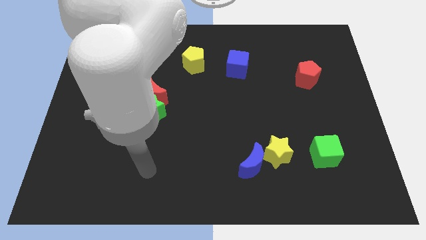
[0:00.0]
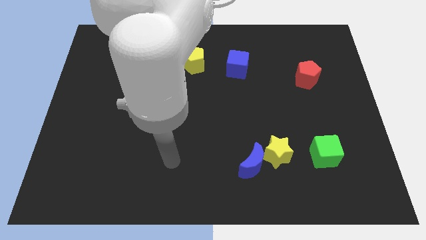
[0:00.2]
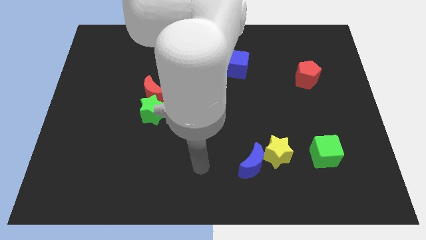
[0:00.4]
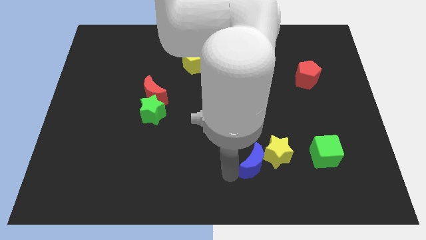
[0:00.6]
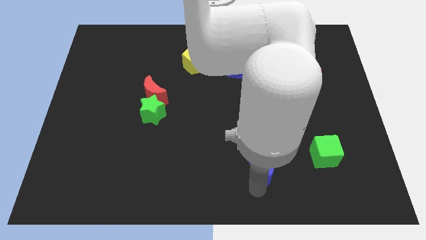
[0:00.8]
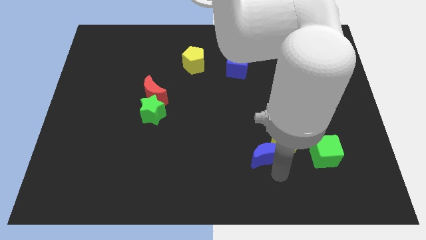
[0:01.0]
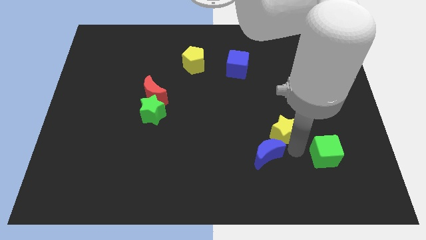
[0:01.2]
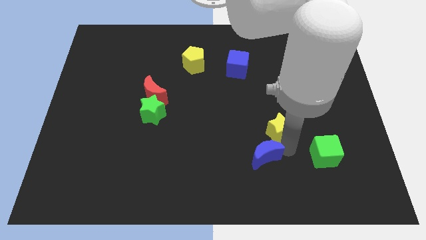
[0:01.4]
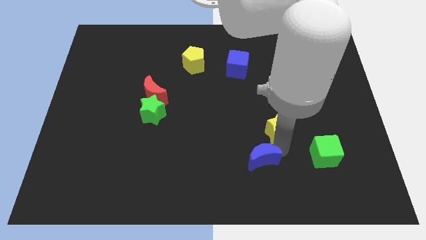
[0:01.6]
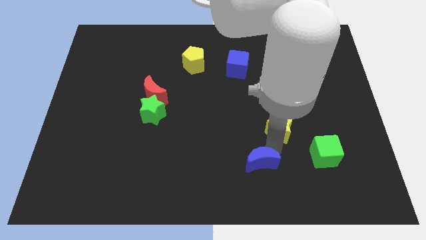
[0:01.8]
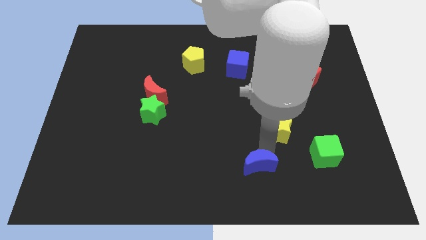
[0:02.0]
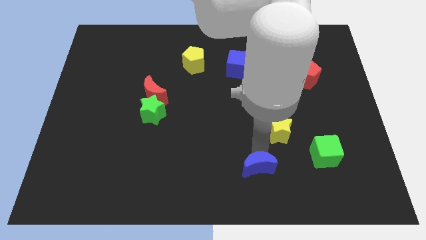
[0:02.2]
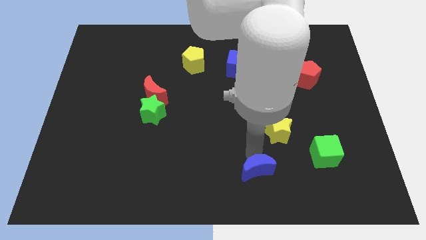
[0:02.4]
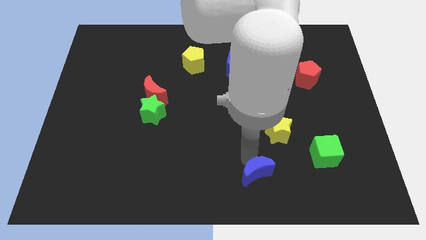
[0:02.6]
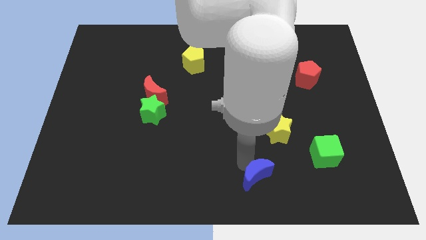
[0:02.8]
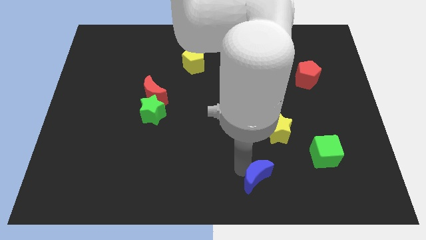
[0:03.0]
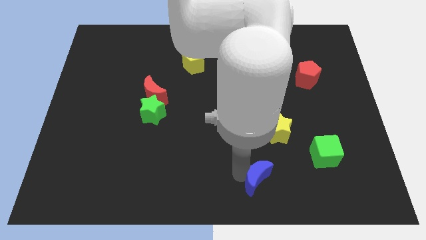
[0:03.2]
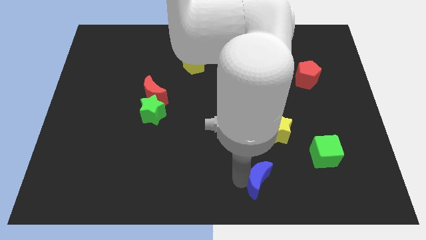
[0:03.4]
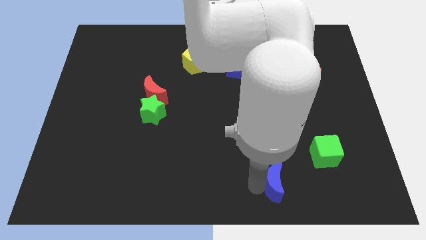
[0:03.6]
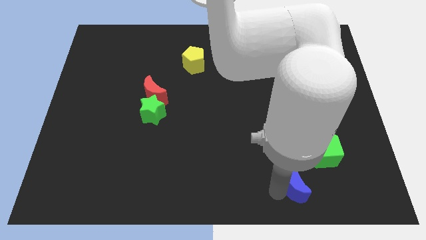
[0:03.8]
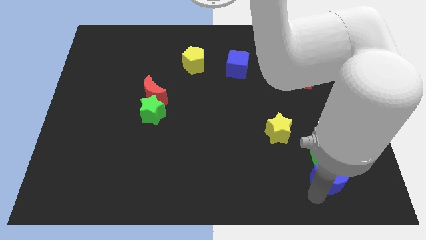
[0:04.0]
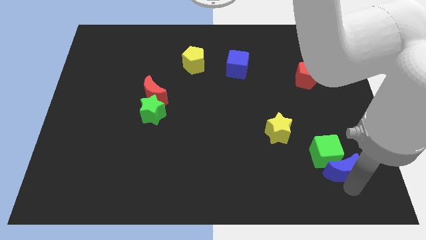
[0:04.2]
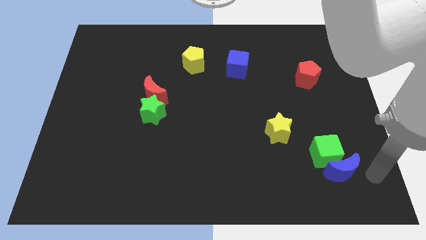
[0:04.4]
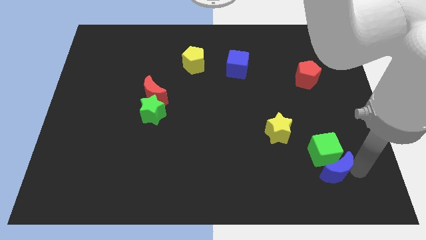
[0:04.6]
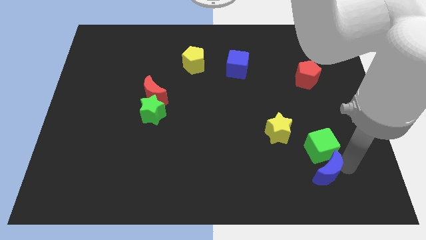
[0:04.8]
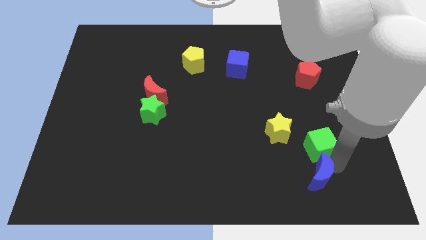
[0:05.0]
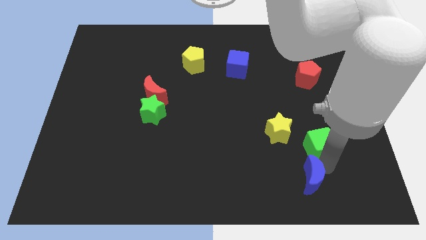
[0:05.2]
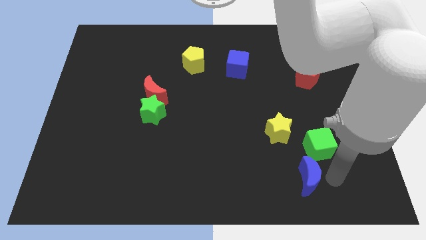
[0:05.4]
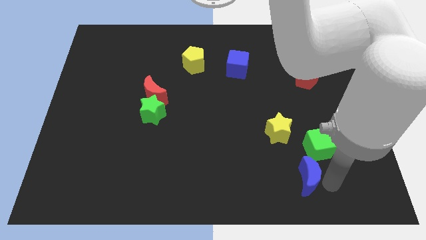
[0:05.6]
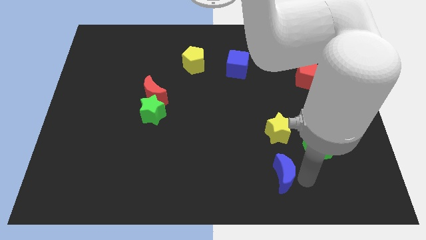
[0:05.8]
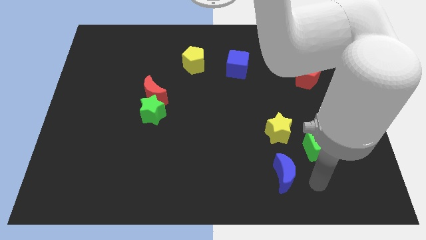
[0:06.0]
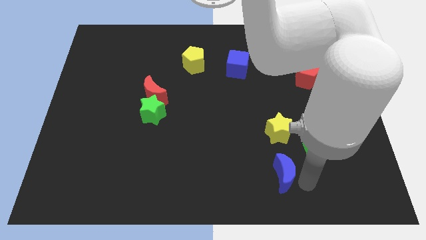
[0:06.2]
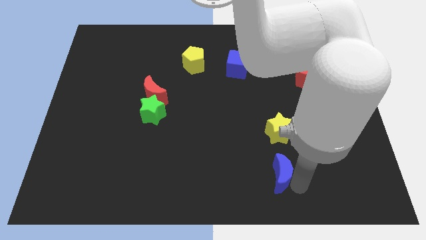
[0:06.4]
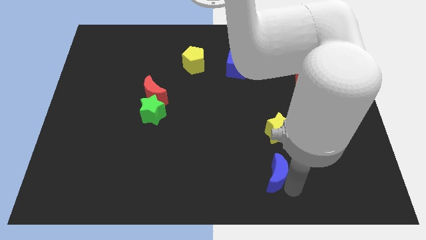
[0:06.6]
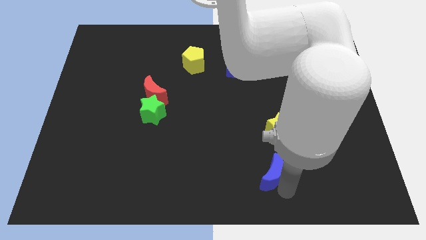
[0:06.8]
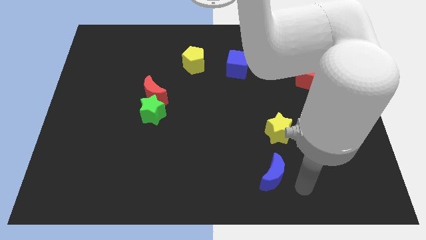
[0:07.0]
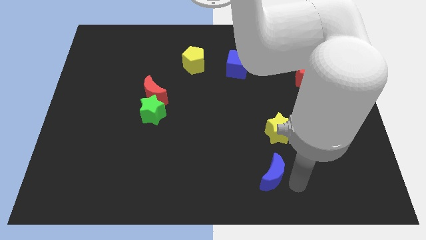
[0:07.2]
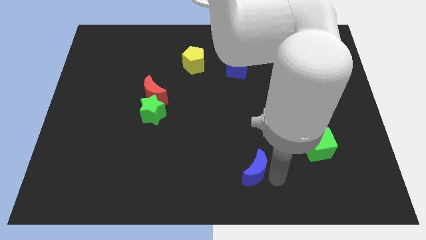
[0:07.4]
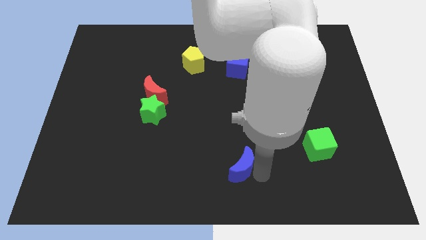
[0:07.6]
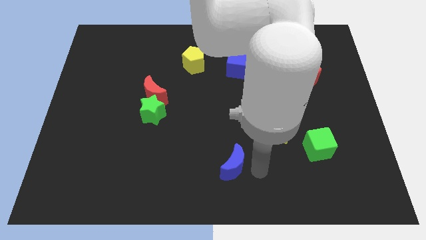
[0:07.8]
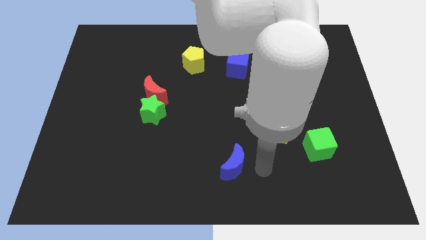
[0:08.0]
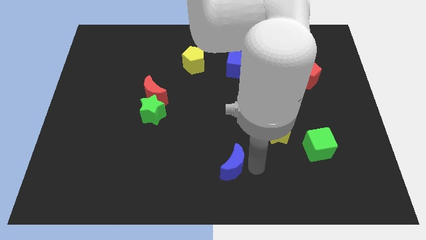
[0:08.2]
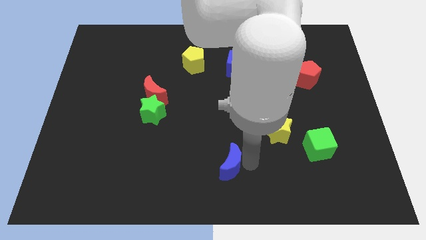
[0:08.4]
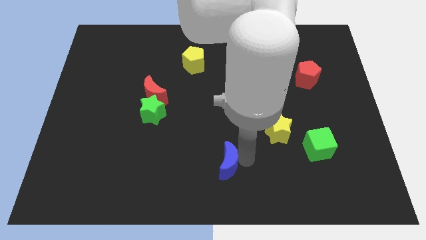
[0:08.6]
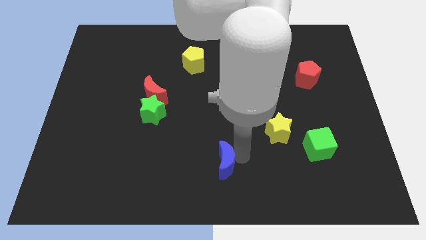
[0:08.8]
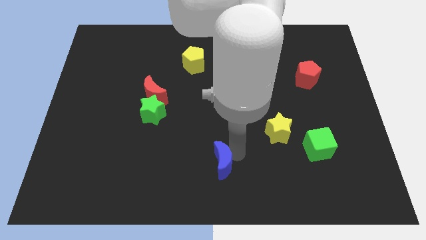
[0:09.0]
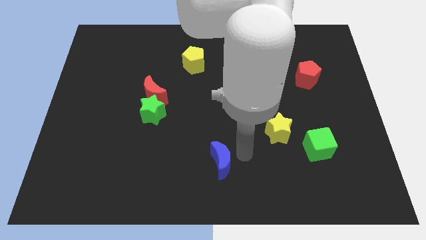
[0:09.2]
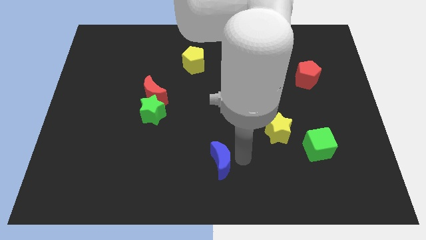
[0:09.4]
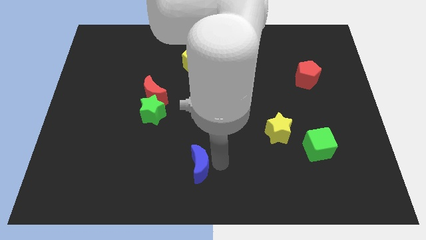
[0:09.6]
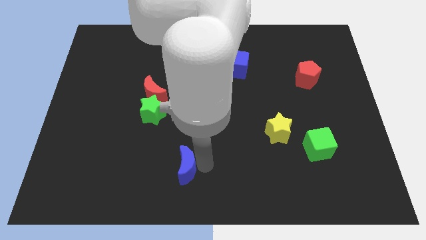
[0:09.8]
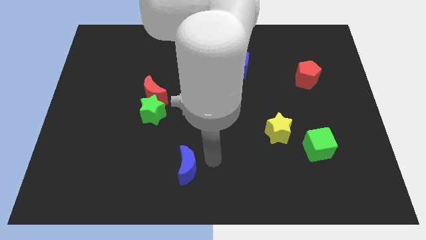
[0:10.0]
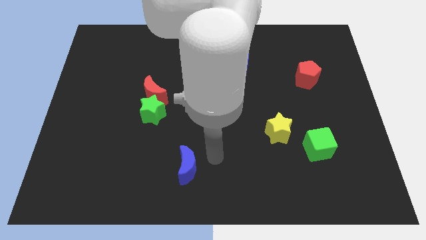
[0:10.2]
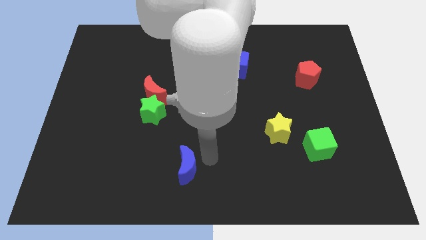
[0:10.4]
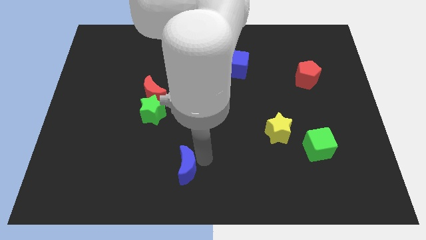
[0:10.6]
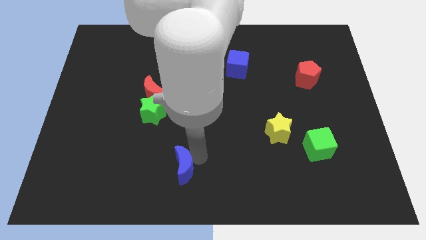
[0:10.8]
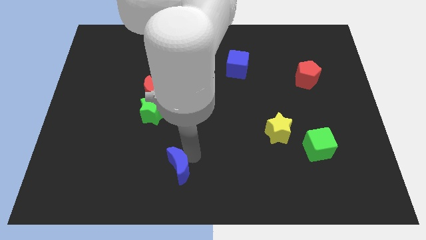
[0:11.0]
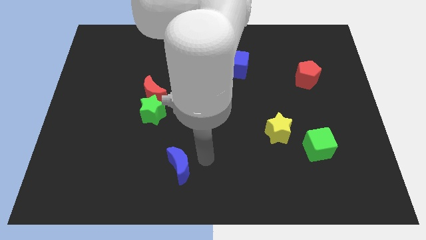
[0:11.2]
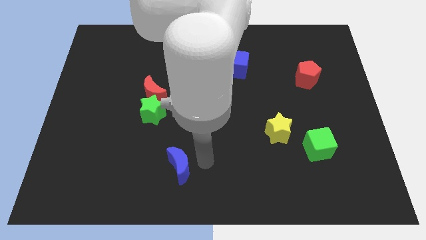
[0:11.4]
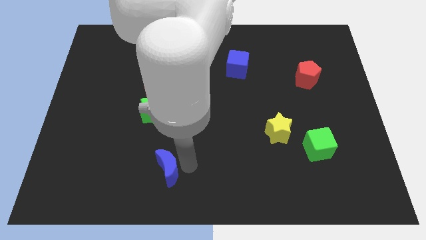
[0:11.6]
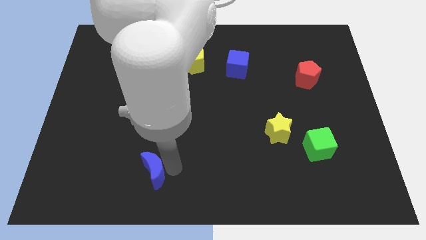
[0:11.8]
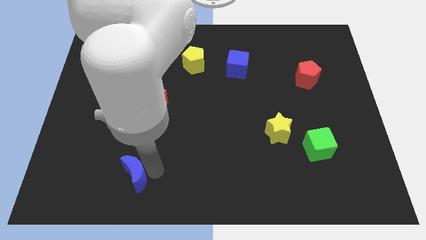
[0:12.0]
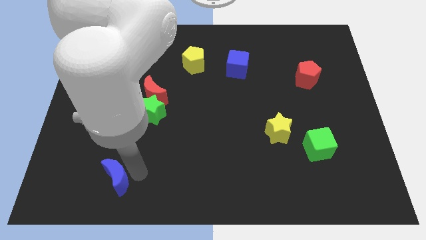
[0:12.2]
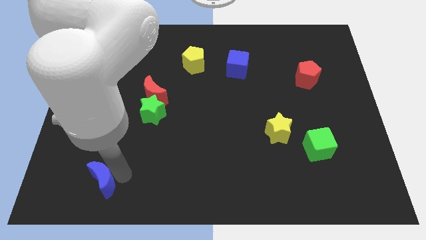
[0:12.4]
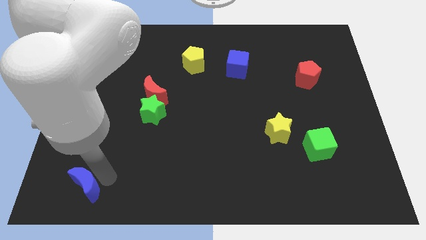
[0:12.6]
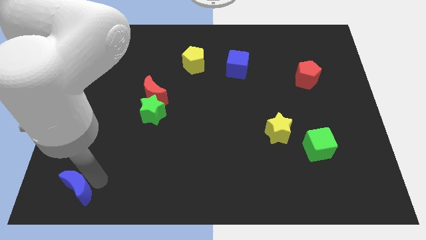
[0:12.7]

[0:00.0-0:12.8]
slide the blue moon to the bottom left of the board
